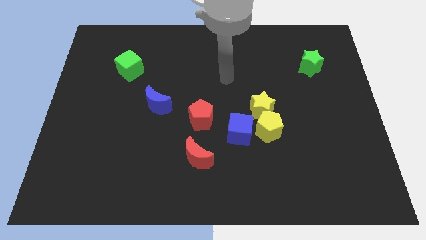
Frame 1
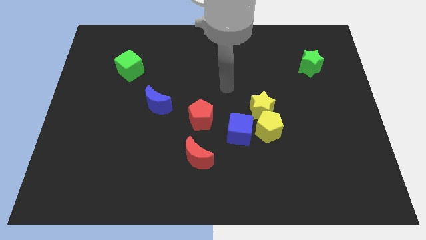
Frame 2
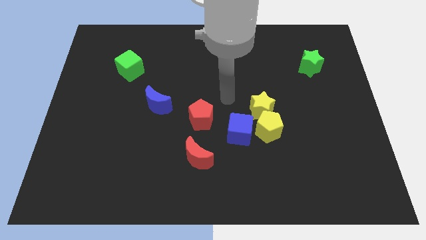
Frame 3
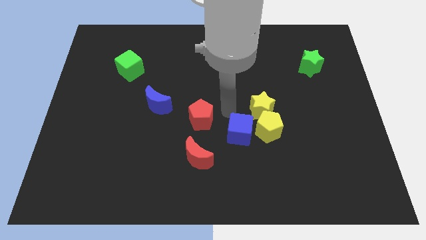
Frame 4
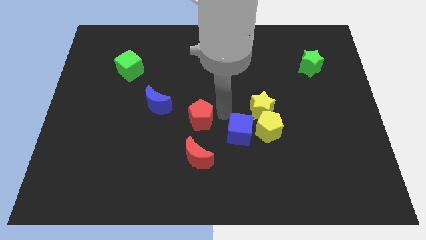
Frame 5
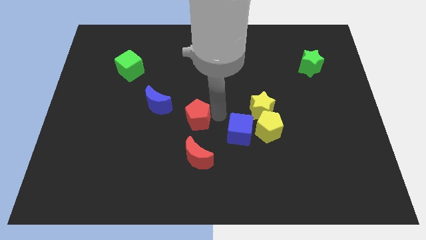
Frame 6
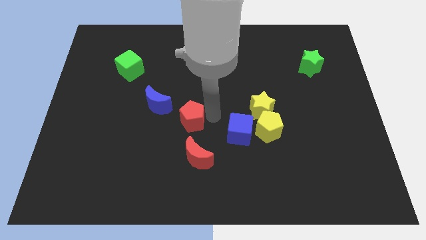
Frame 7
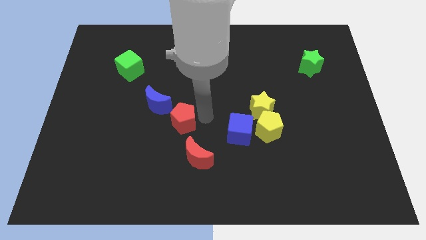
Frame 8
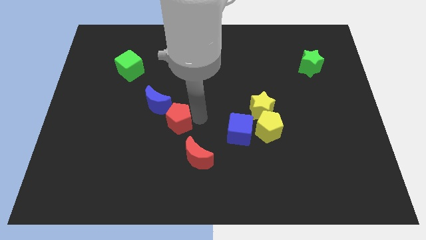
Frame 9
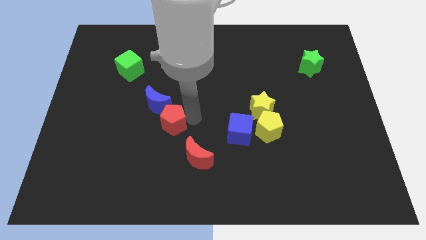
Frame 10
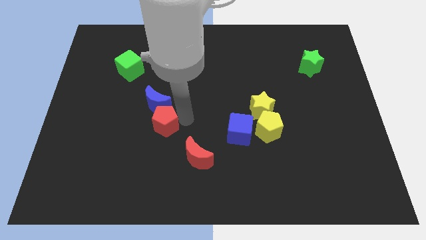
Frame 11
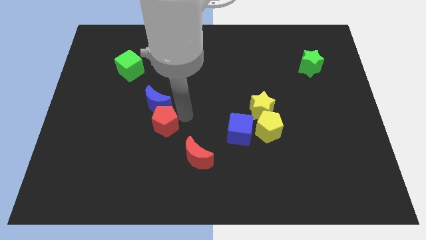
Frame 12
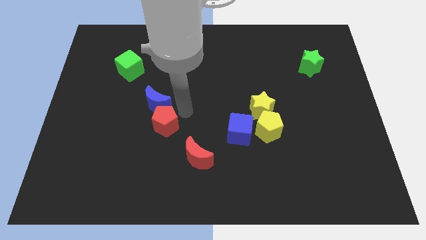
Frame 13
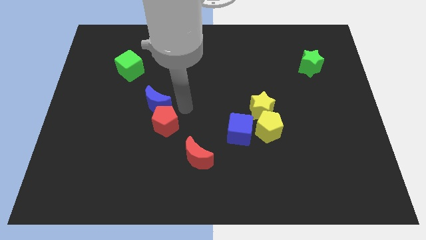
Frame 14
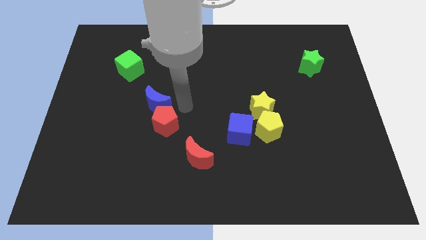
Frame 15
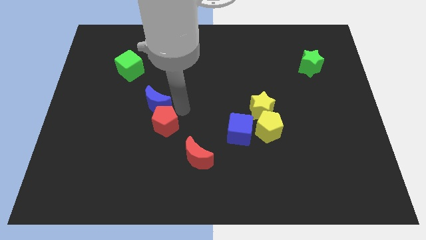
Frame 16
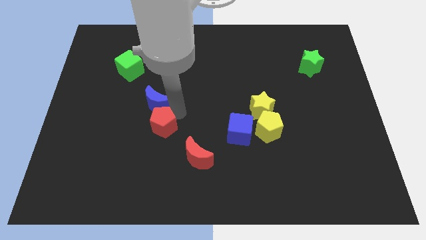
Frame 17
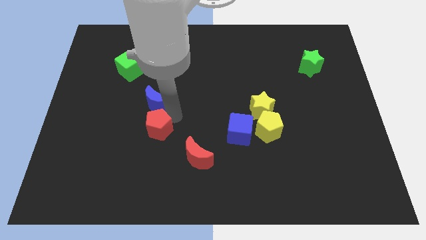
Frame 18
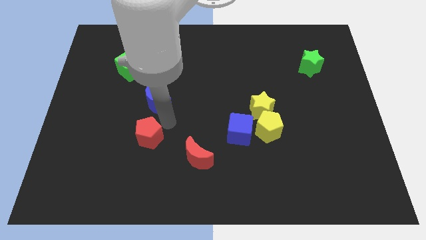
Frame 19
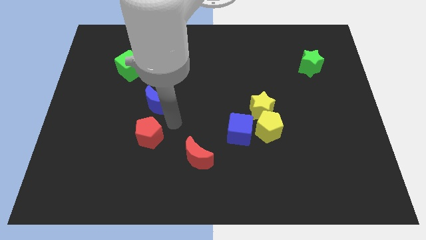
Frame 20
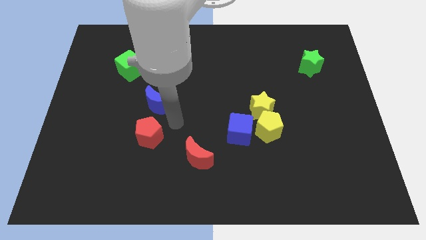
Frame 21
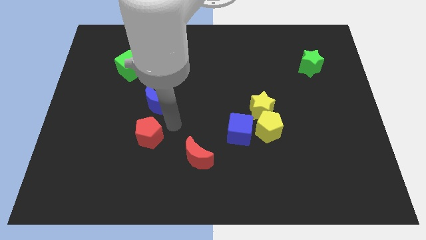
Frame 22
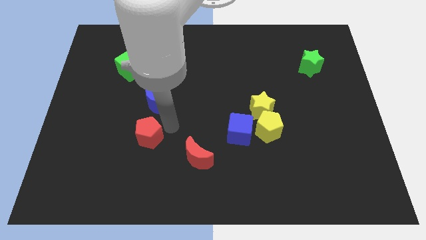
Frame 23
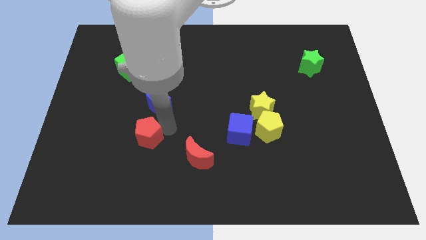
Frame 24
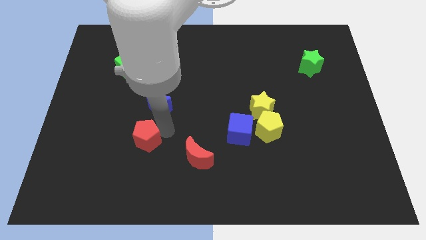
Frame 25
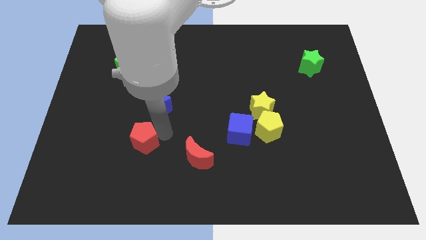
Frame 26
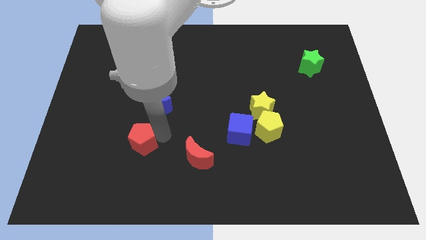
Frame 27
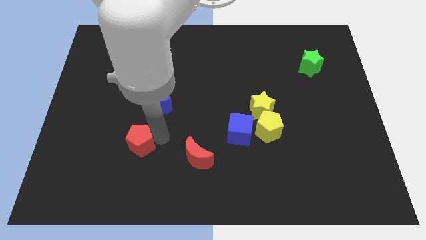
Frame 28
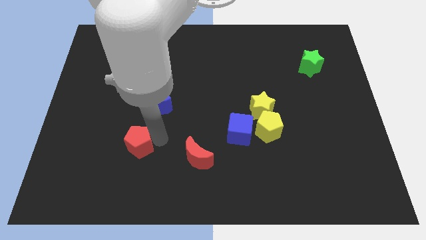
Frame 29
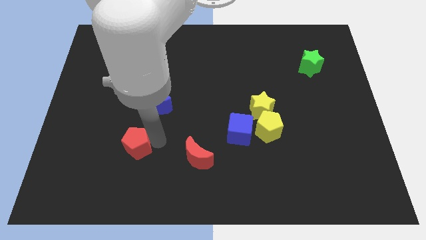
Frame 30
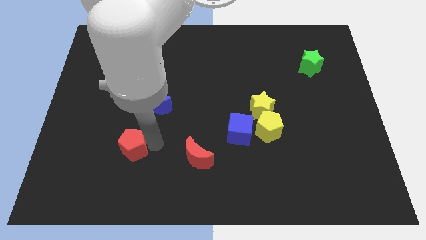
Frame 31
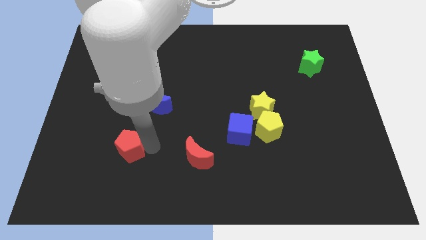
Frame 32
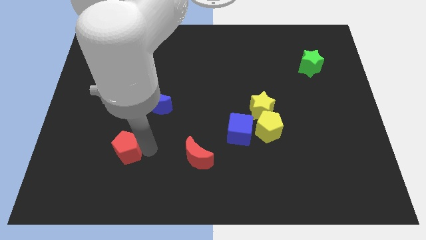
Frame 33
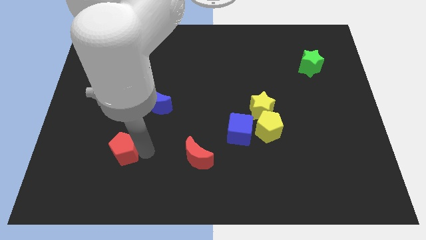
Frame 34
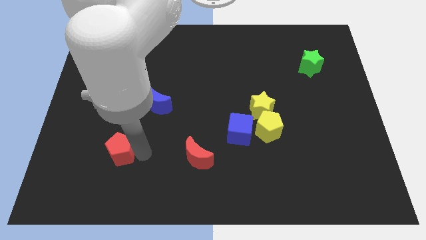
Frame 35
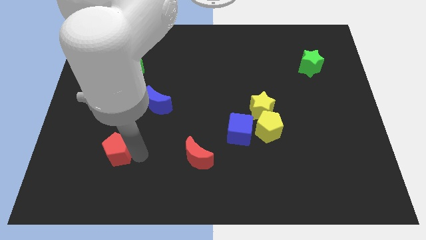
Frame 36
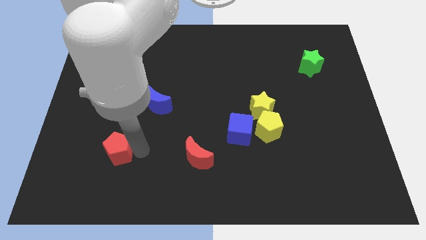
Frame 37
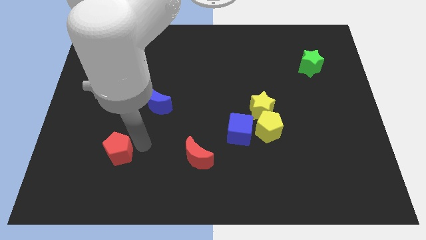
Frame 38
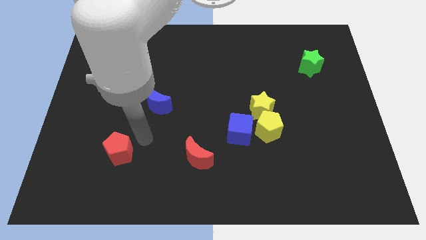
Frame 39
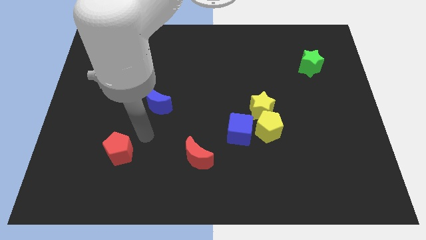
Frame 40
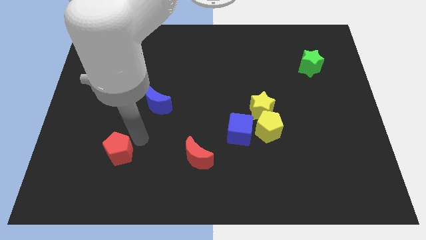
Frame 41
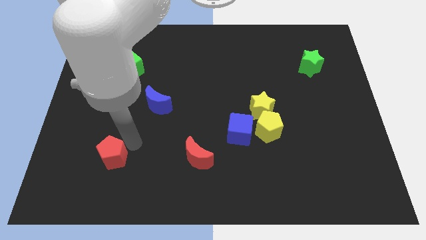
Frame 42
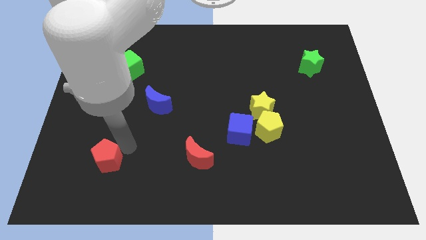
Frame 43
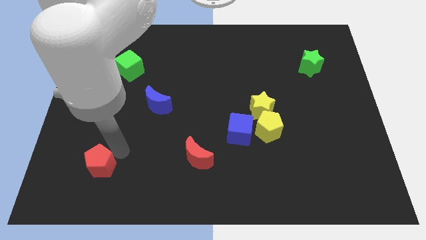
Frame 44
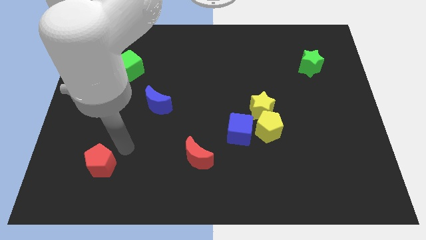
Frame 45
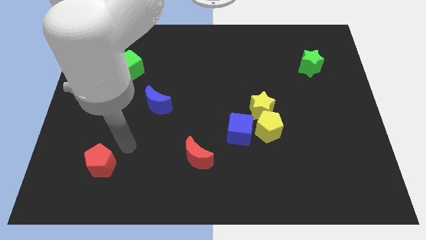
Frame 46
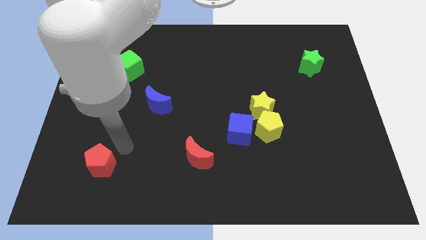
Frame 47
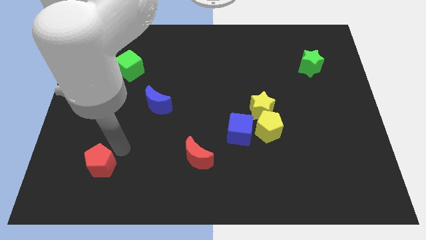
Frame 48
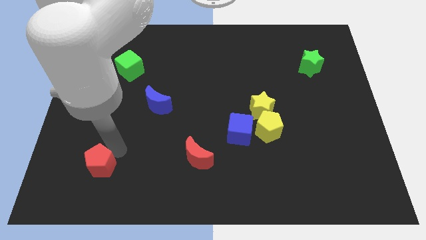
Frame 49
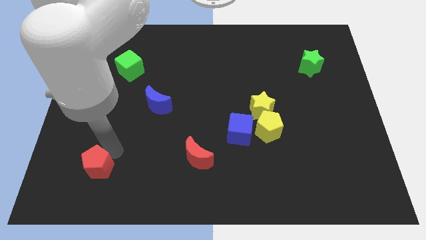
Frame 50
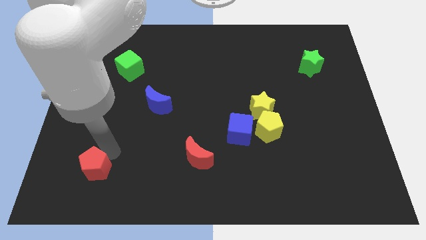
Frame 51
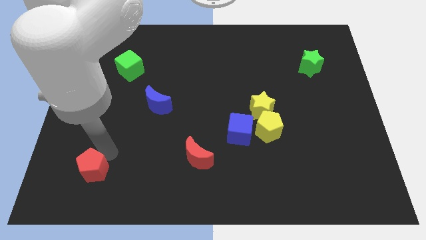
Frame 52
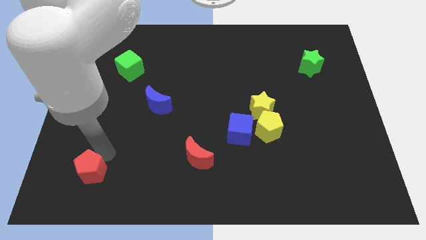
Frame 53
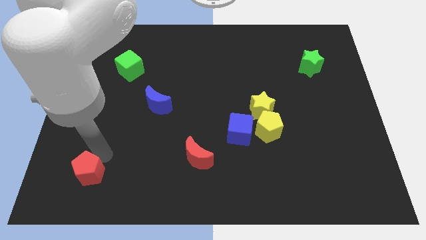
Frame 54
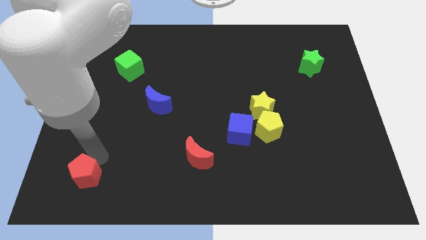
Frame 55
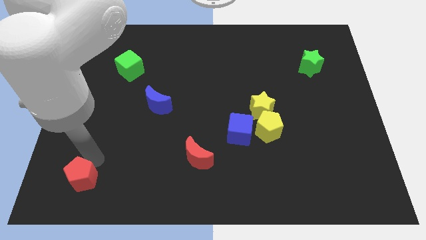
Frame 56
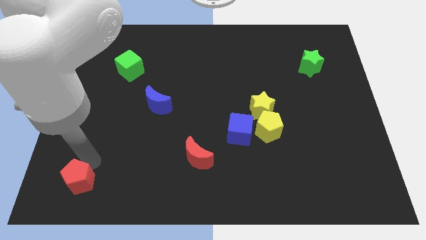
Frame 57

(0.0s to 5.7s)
move the red pentagon to the bottom left corner
